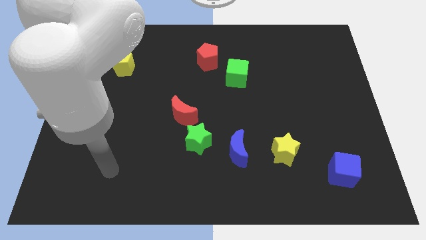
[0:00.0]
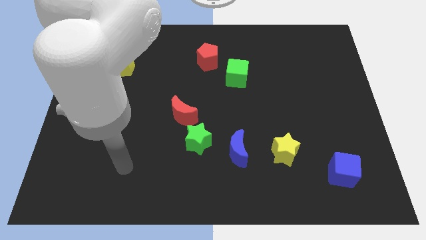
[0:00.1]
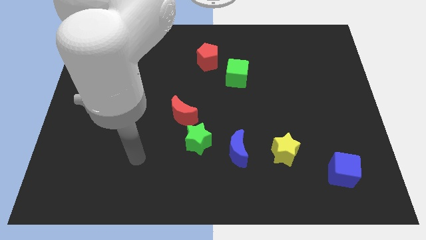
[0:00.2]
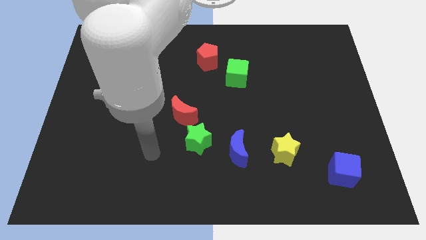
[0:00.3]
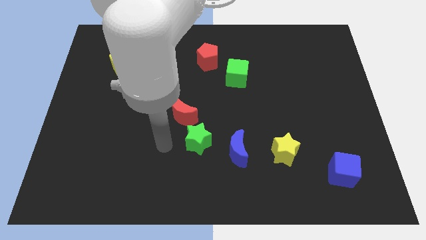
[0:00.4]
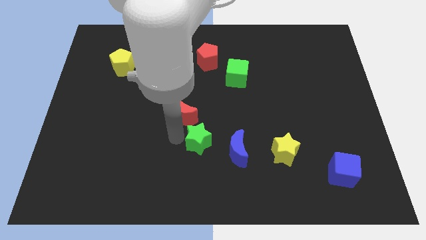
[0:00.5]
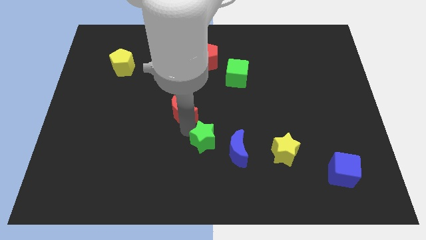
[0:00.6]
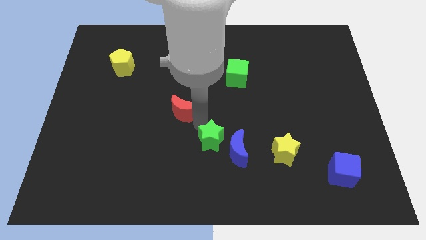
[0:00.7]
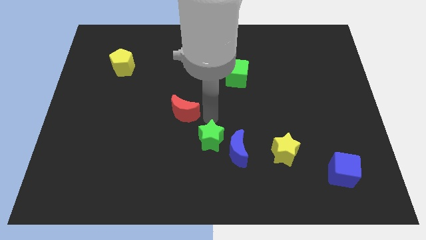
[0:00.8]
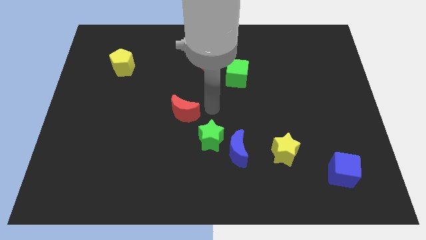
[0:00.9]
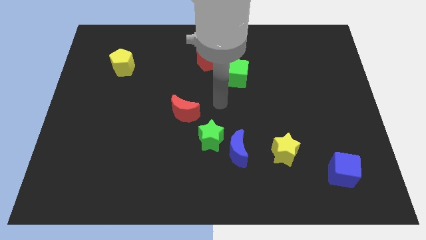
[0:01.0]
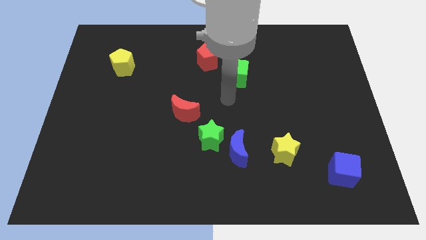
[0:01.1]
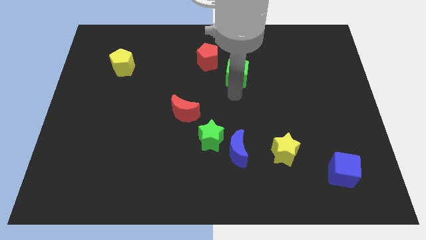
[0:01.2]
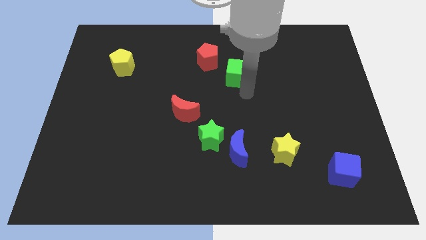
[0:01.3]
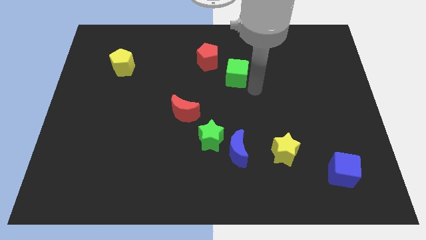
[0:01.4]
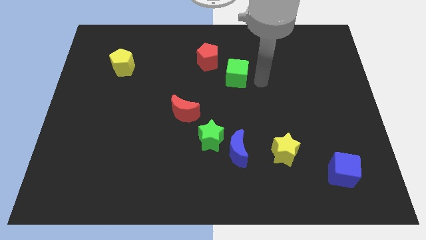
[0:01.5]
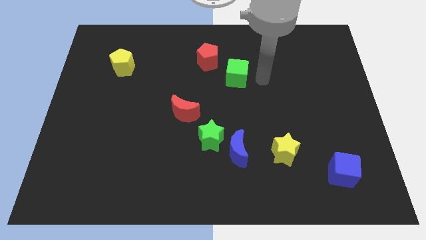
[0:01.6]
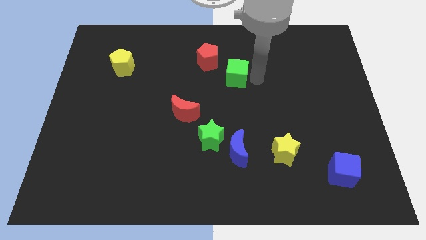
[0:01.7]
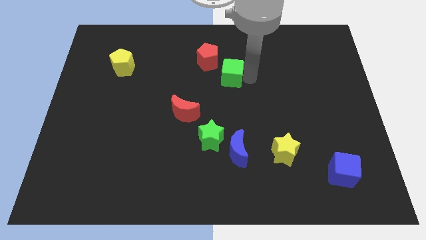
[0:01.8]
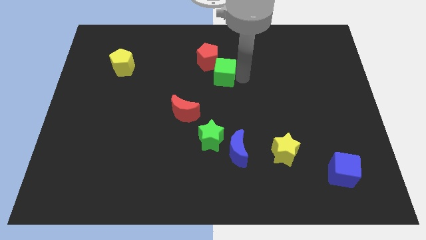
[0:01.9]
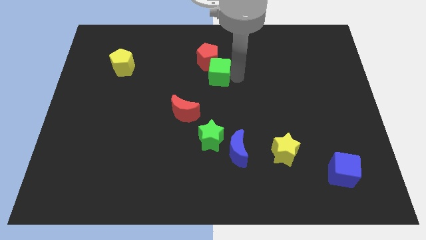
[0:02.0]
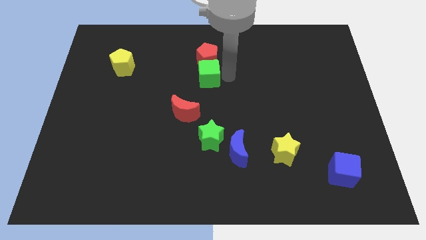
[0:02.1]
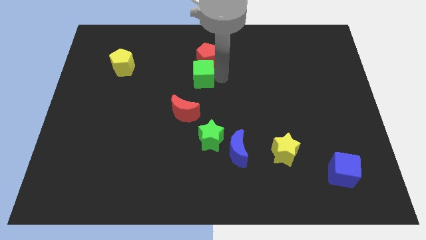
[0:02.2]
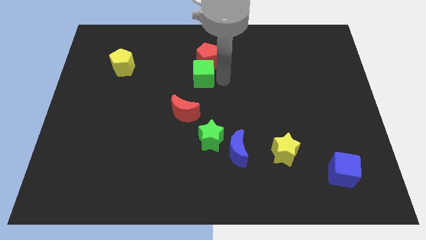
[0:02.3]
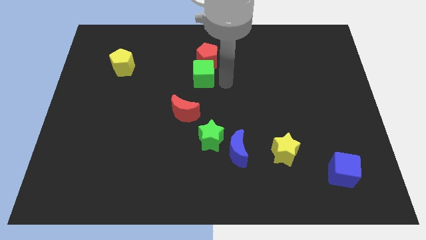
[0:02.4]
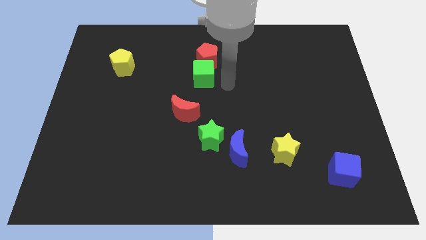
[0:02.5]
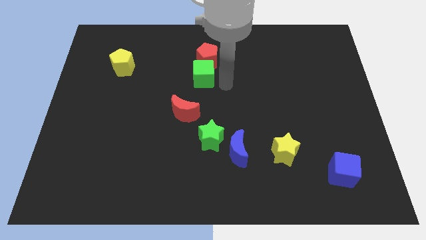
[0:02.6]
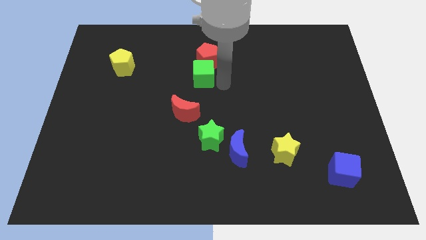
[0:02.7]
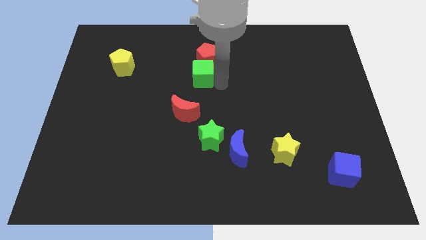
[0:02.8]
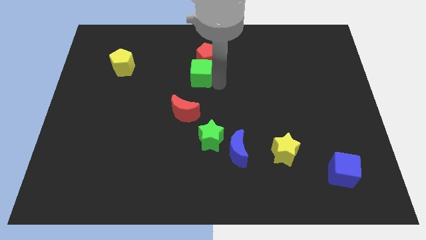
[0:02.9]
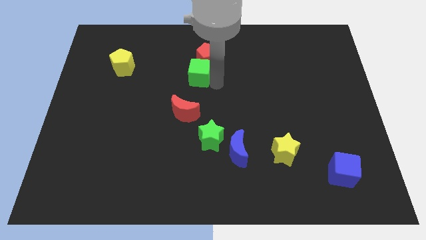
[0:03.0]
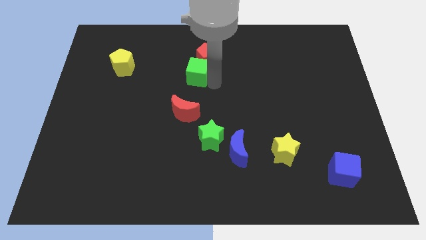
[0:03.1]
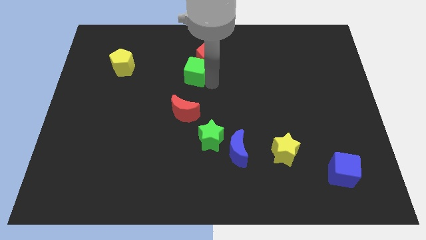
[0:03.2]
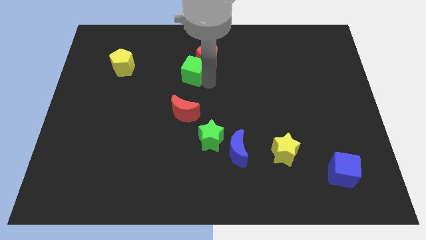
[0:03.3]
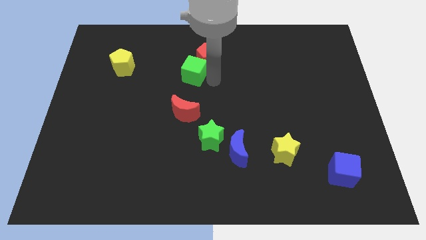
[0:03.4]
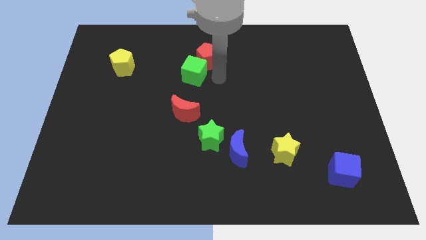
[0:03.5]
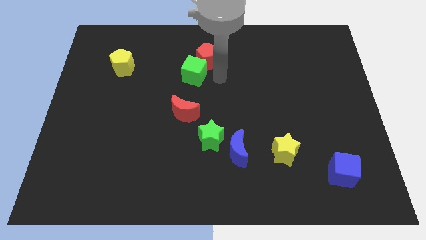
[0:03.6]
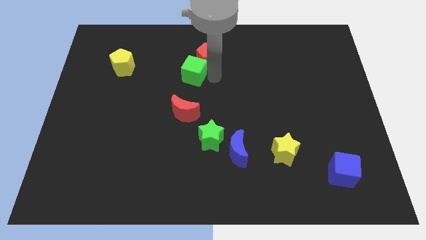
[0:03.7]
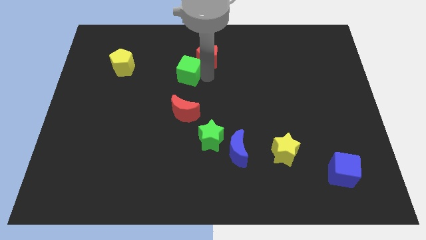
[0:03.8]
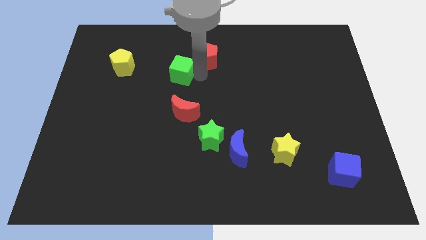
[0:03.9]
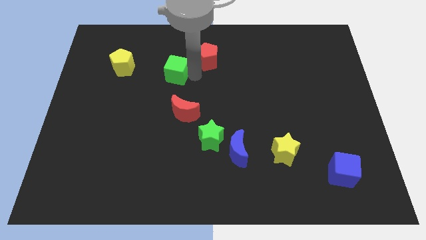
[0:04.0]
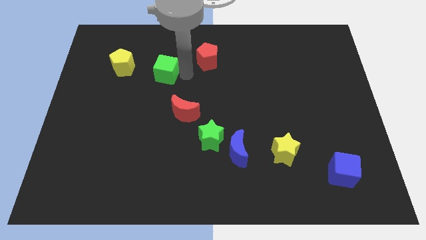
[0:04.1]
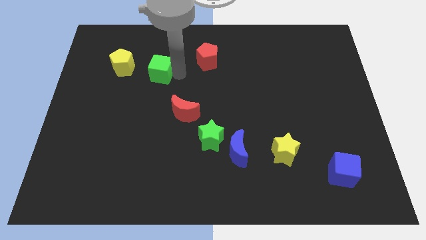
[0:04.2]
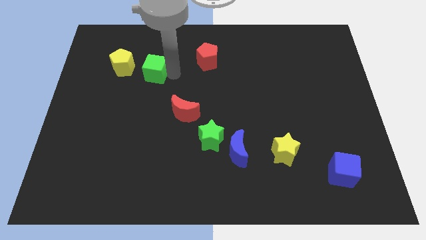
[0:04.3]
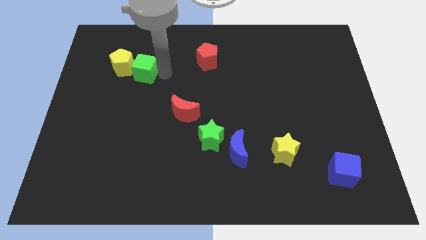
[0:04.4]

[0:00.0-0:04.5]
slide the green cube close to the yellow pentagon

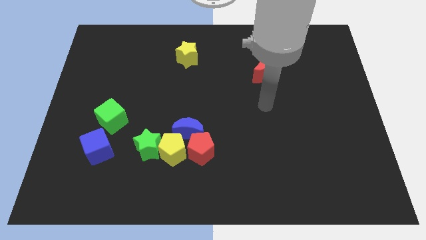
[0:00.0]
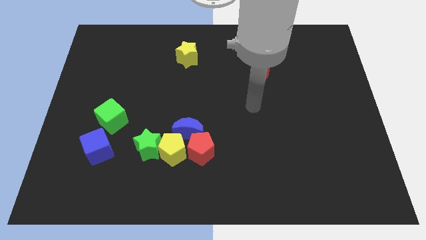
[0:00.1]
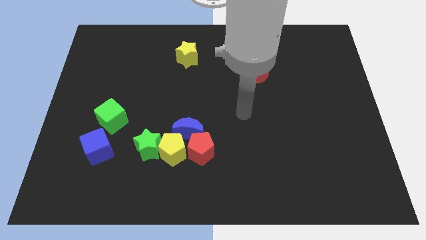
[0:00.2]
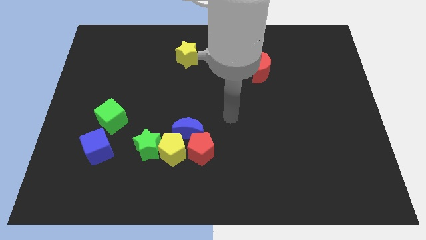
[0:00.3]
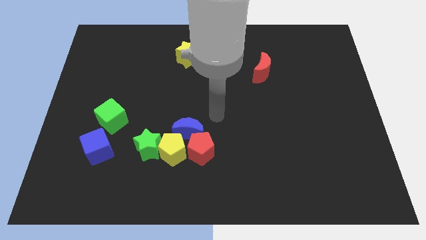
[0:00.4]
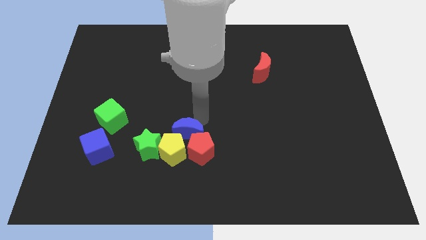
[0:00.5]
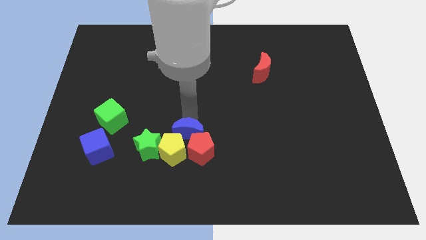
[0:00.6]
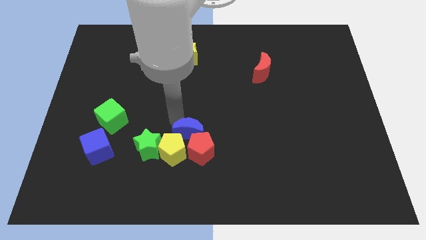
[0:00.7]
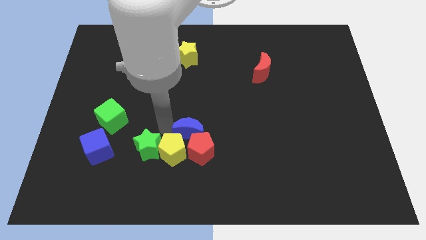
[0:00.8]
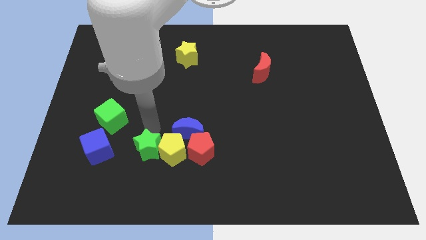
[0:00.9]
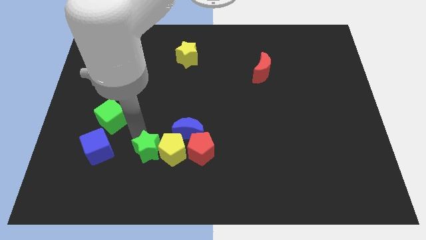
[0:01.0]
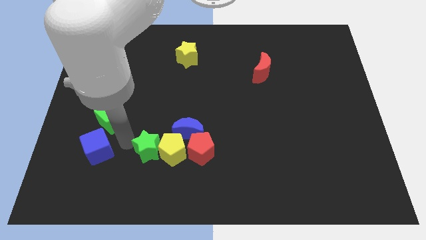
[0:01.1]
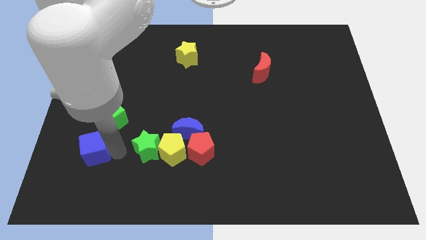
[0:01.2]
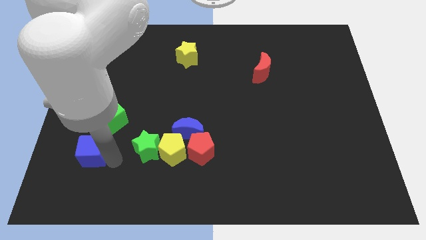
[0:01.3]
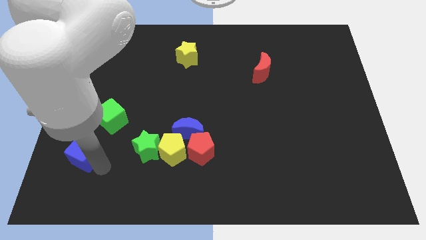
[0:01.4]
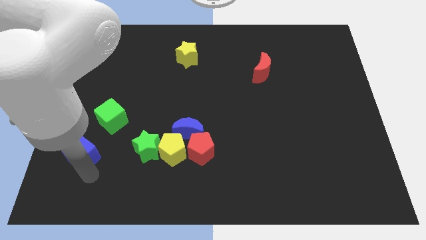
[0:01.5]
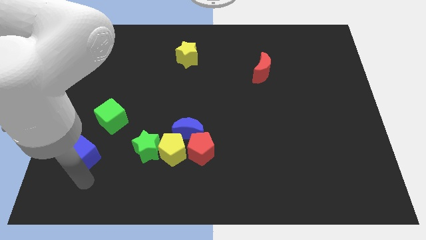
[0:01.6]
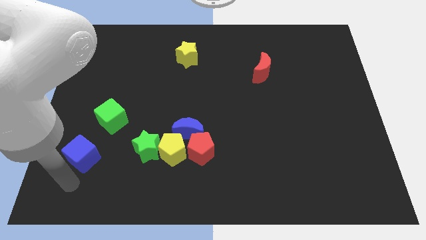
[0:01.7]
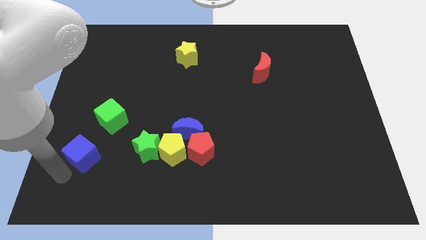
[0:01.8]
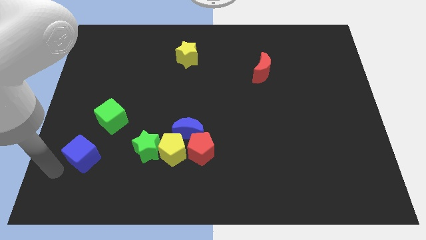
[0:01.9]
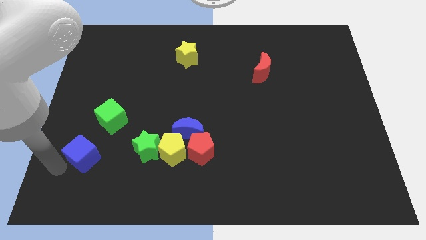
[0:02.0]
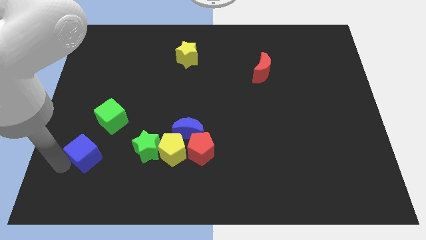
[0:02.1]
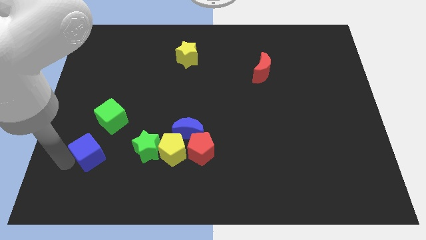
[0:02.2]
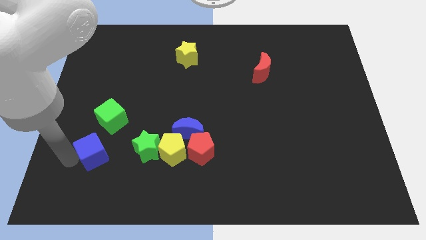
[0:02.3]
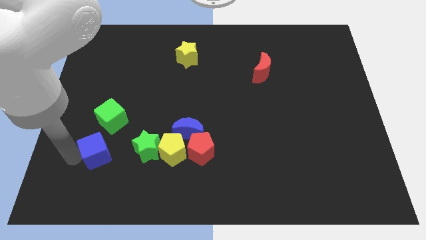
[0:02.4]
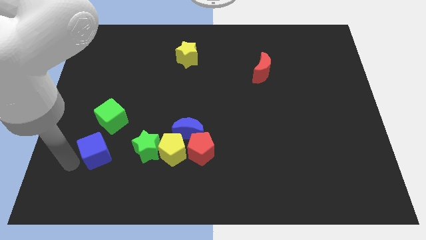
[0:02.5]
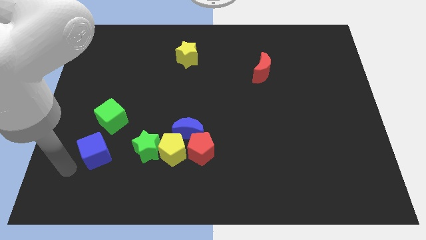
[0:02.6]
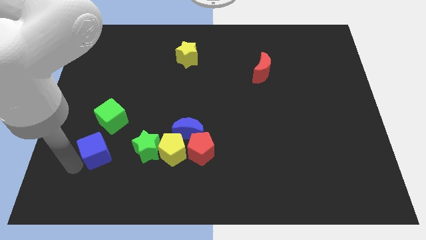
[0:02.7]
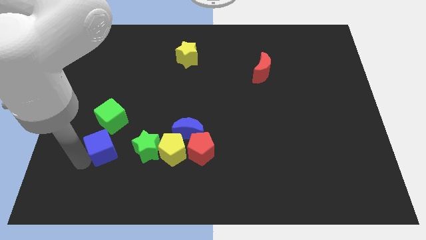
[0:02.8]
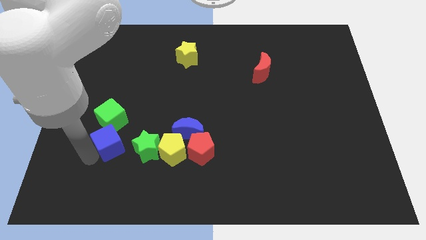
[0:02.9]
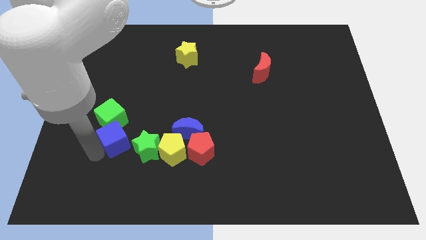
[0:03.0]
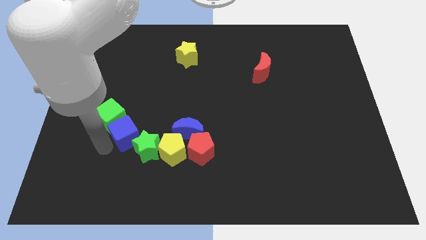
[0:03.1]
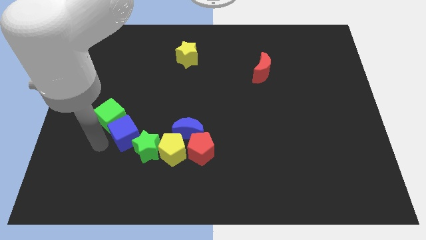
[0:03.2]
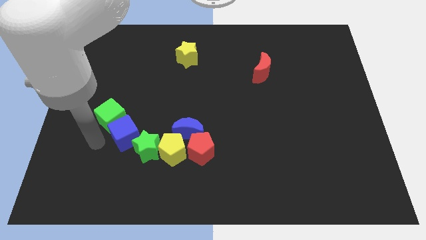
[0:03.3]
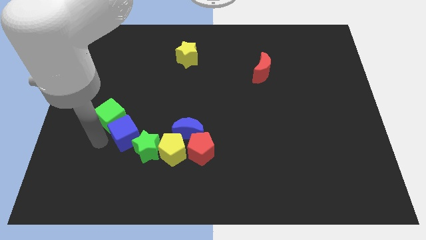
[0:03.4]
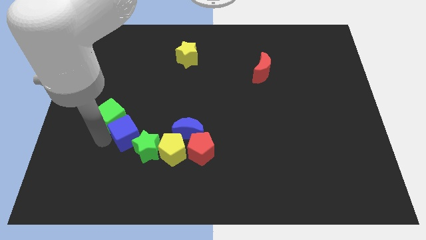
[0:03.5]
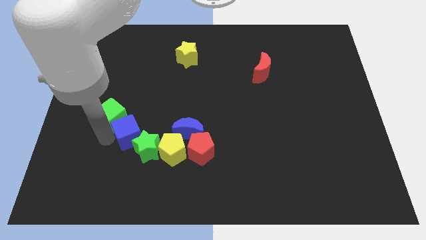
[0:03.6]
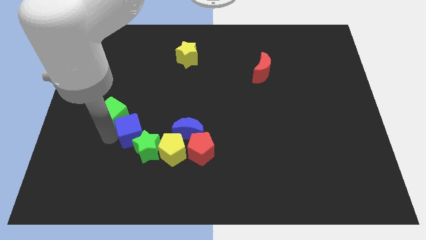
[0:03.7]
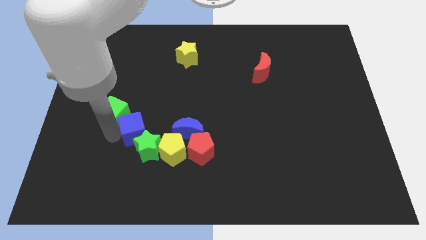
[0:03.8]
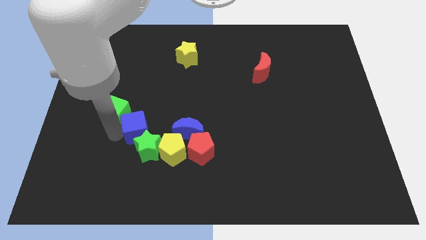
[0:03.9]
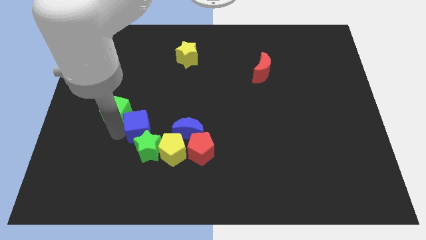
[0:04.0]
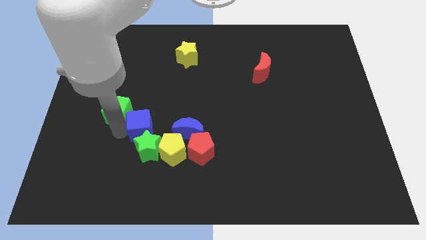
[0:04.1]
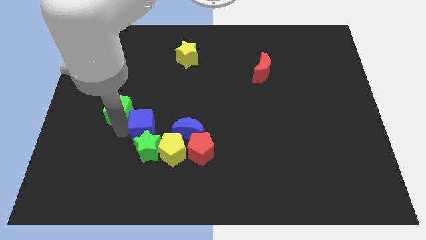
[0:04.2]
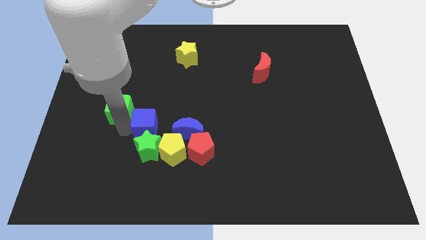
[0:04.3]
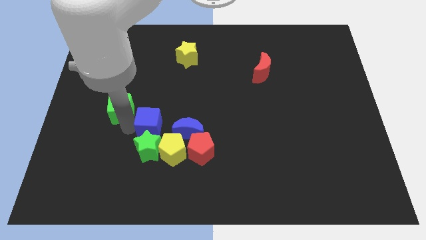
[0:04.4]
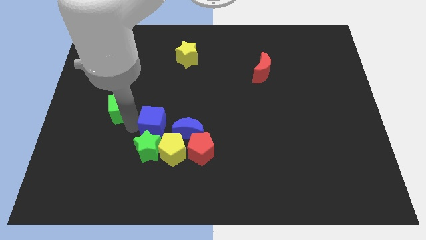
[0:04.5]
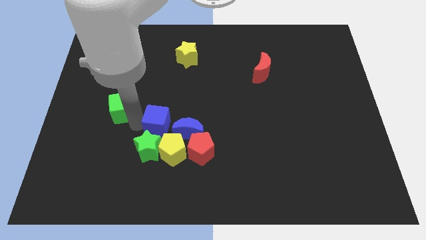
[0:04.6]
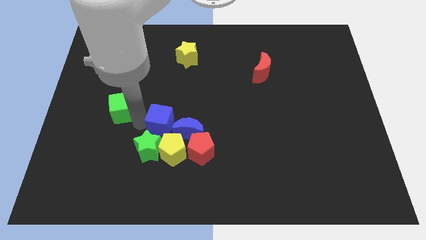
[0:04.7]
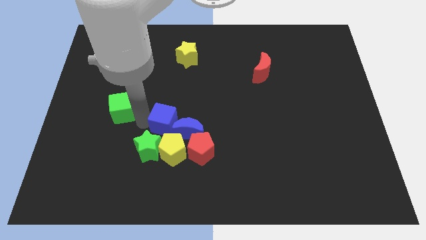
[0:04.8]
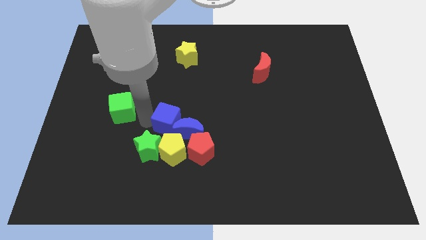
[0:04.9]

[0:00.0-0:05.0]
put the blue cube towards the blue moon
